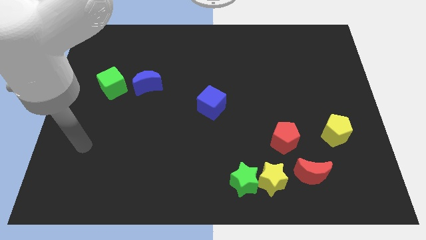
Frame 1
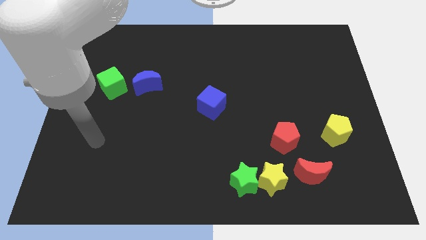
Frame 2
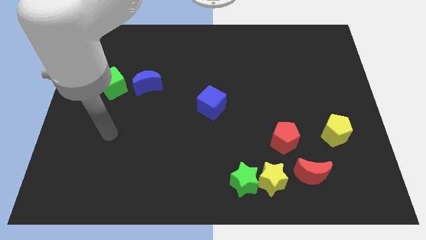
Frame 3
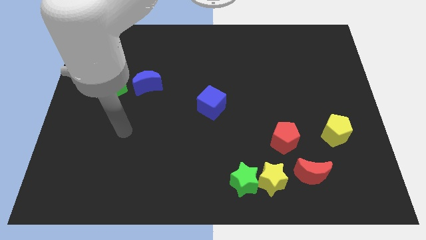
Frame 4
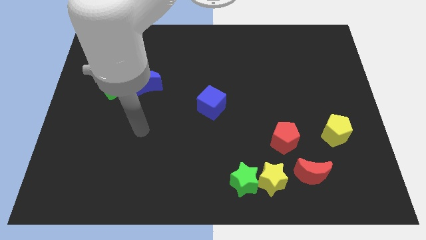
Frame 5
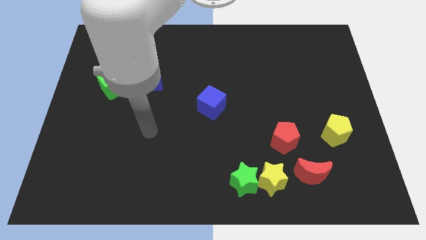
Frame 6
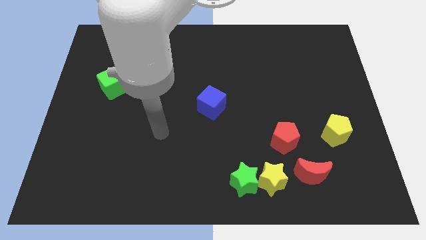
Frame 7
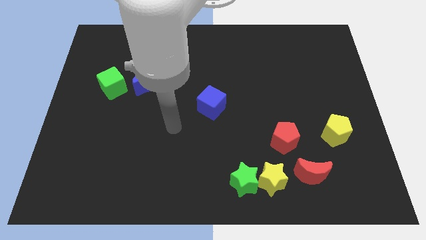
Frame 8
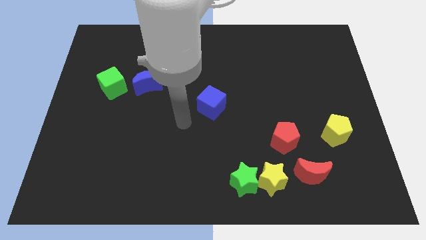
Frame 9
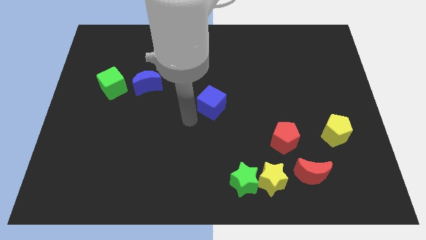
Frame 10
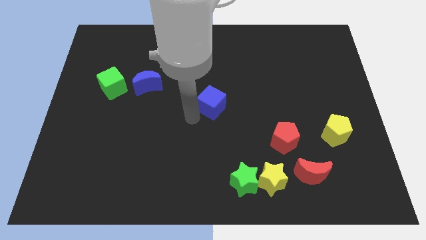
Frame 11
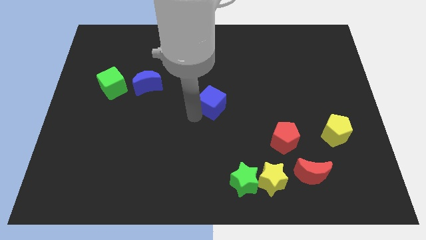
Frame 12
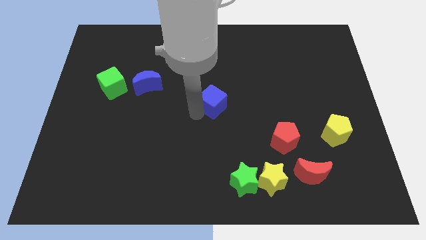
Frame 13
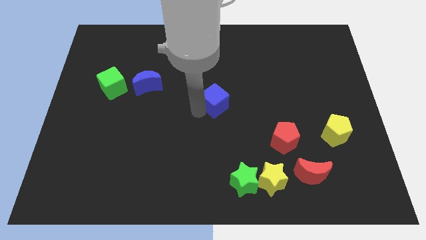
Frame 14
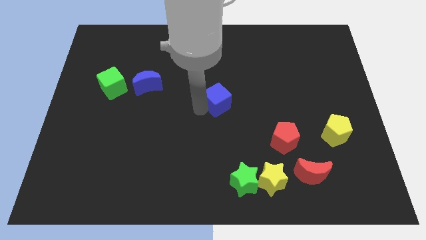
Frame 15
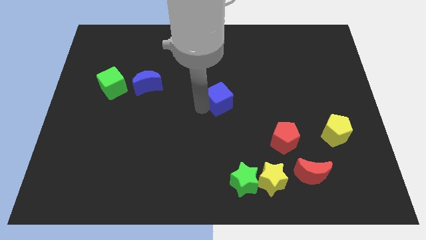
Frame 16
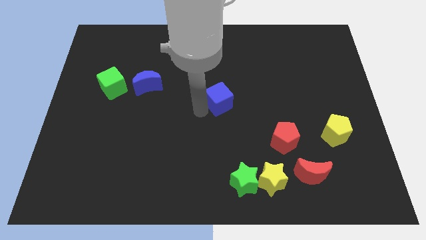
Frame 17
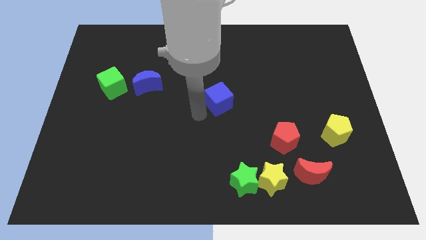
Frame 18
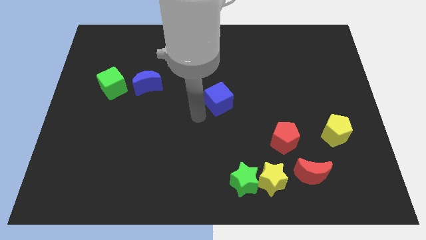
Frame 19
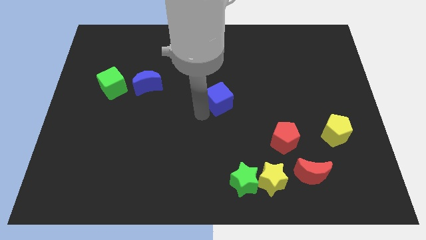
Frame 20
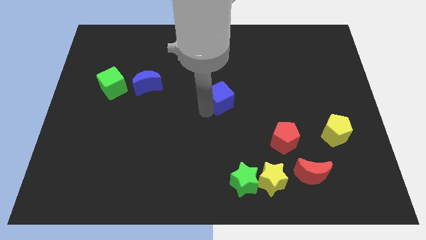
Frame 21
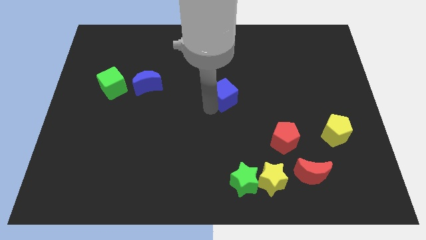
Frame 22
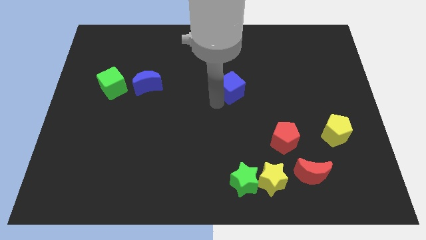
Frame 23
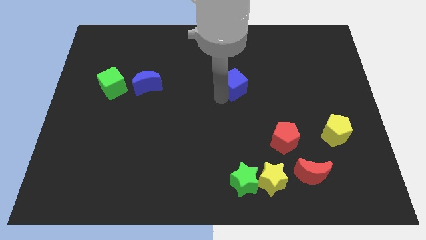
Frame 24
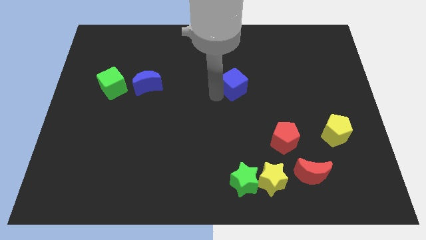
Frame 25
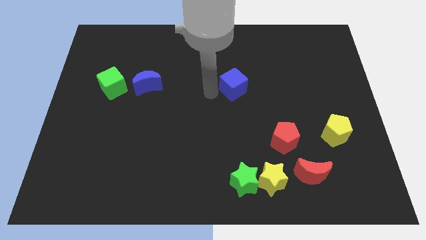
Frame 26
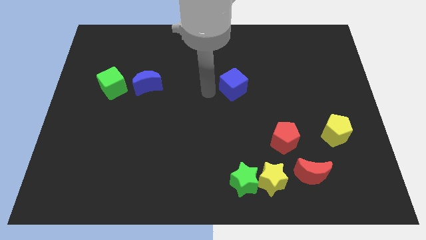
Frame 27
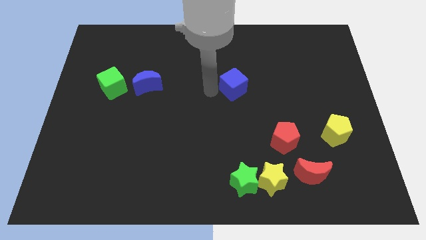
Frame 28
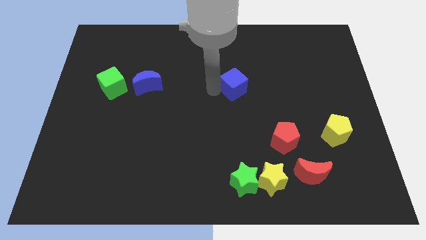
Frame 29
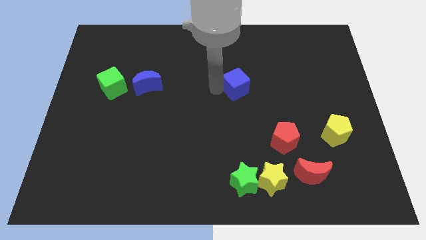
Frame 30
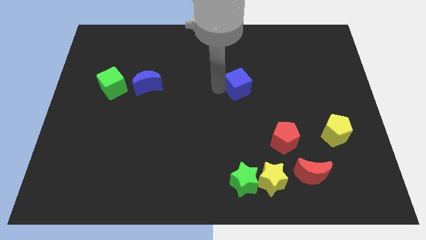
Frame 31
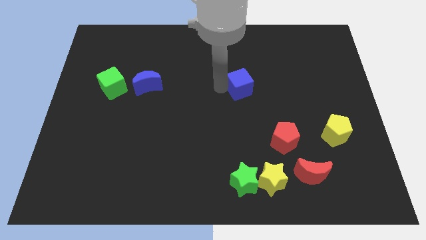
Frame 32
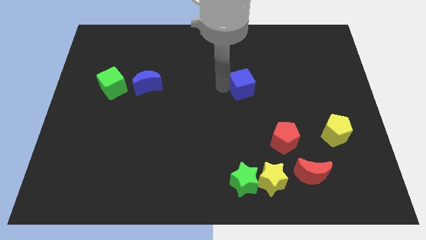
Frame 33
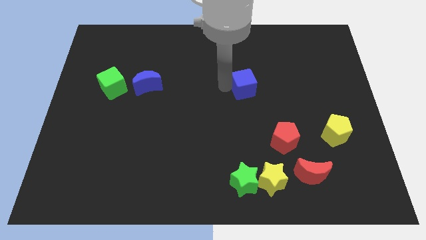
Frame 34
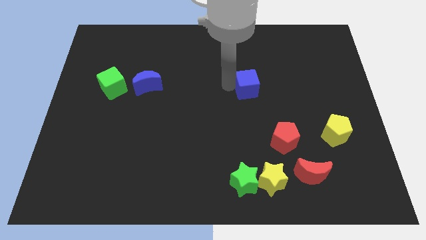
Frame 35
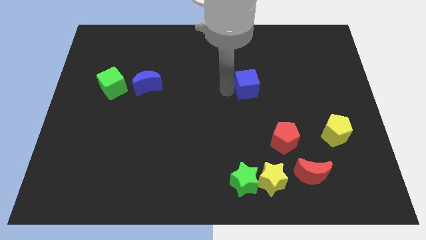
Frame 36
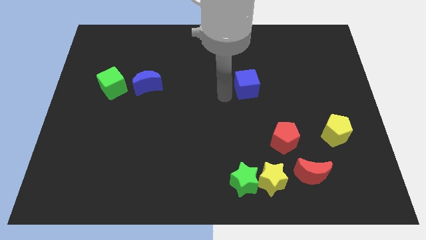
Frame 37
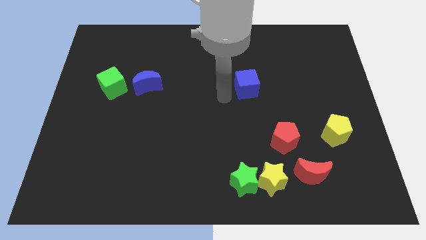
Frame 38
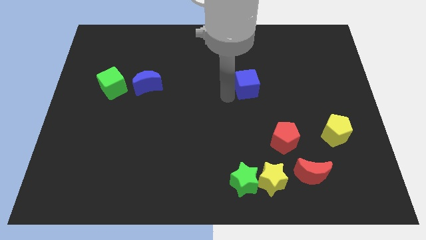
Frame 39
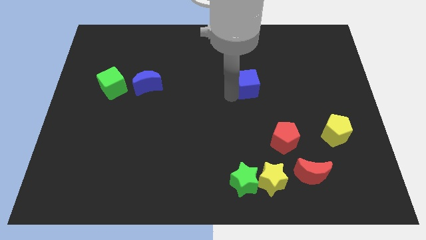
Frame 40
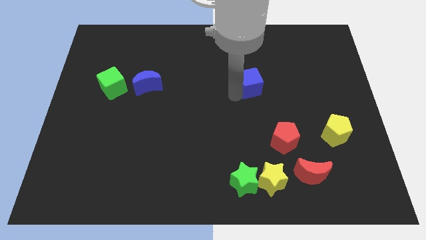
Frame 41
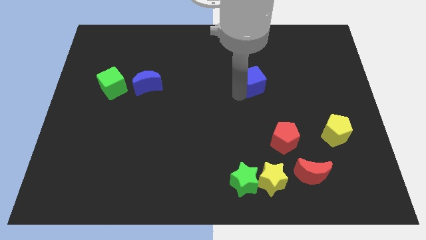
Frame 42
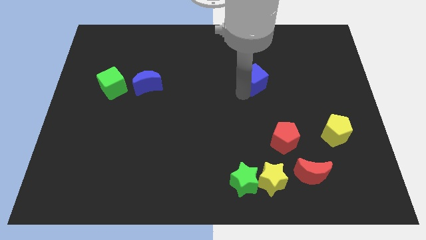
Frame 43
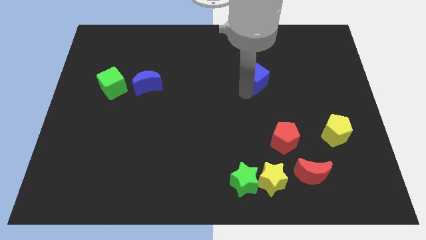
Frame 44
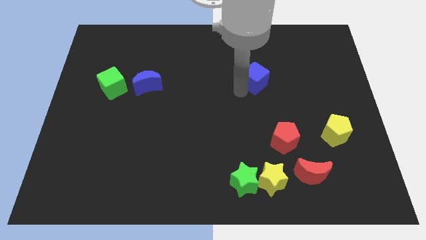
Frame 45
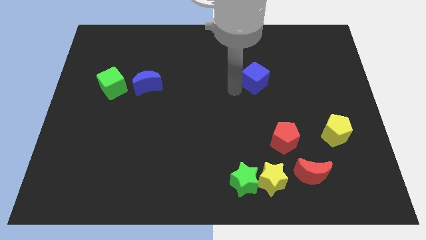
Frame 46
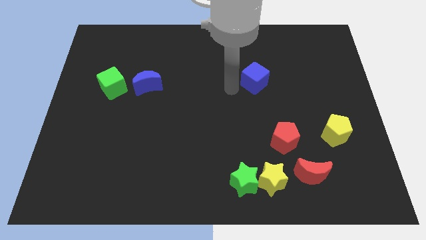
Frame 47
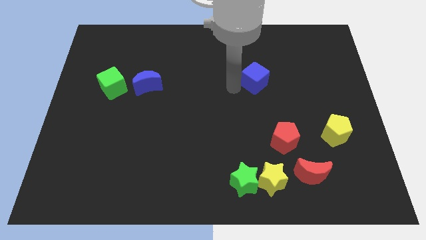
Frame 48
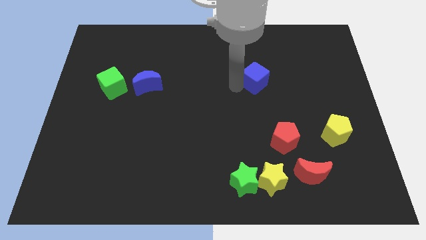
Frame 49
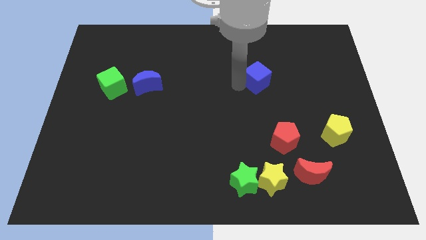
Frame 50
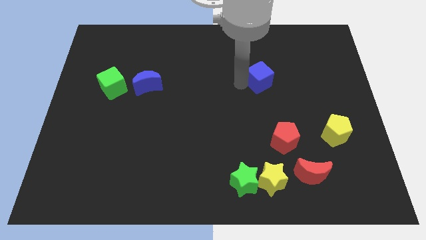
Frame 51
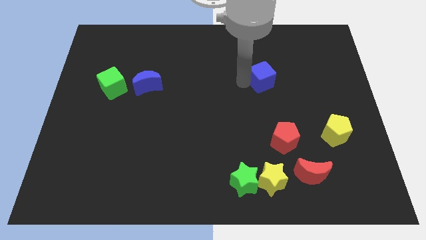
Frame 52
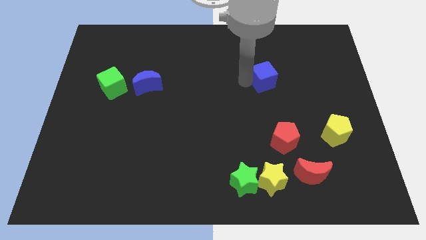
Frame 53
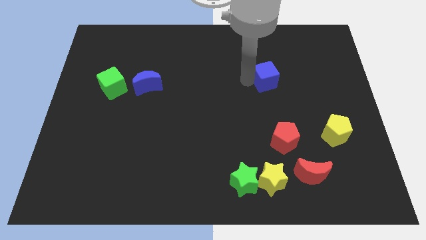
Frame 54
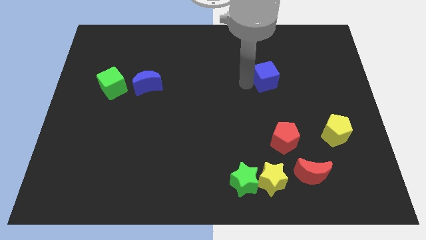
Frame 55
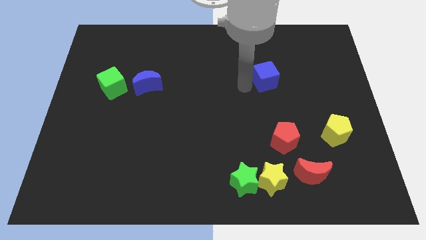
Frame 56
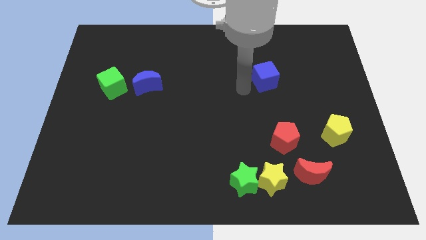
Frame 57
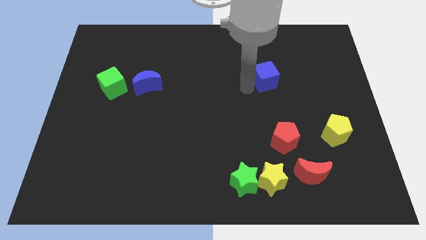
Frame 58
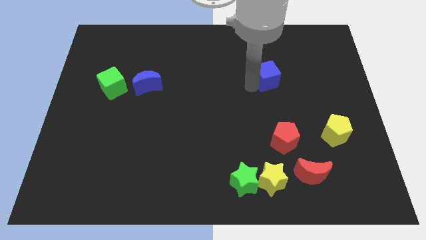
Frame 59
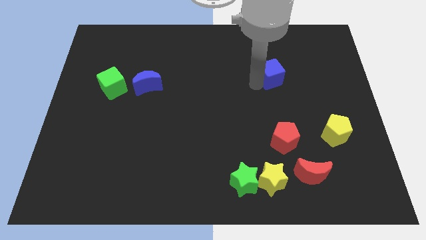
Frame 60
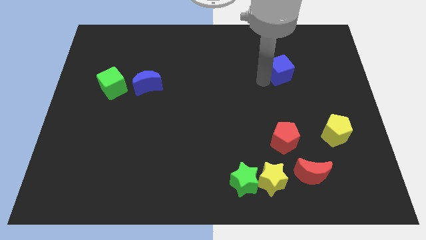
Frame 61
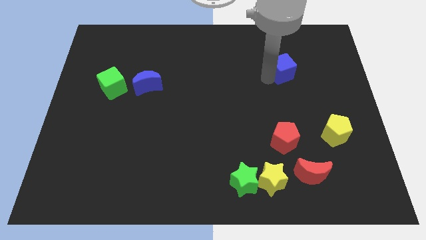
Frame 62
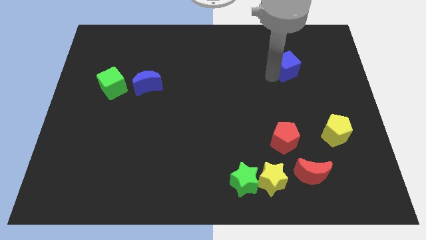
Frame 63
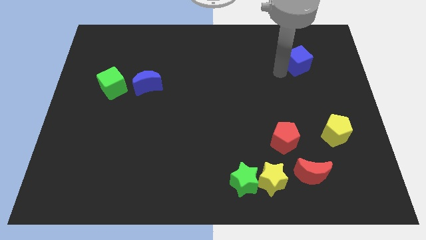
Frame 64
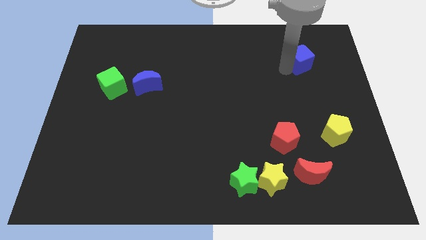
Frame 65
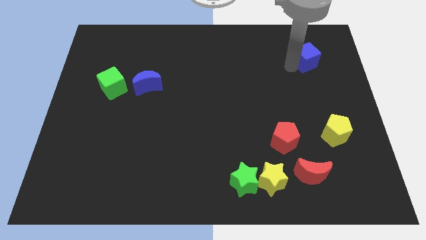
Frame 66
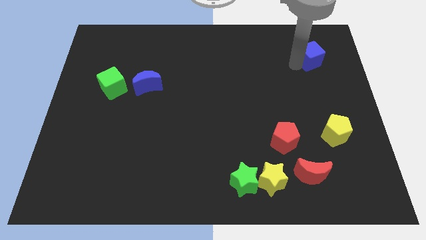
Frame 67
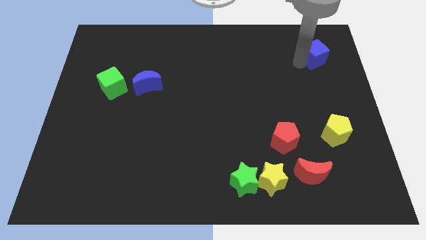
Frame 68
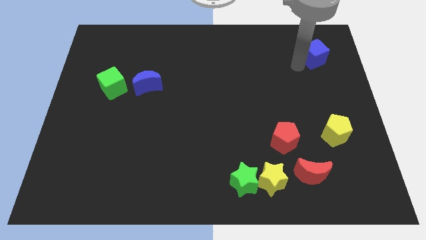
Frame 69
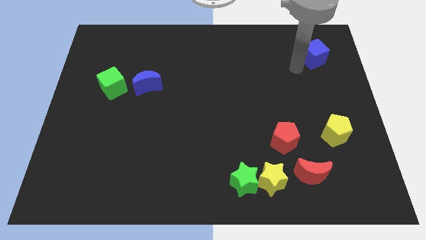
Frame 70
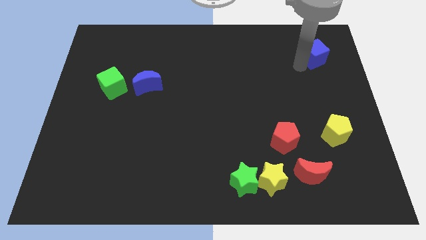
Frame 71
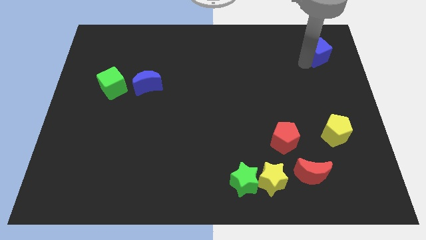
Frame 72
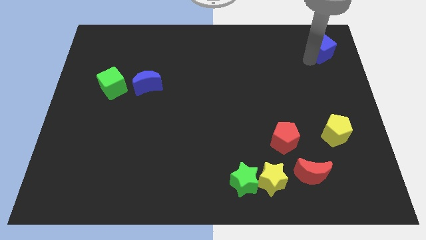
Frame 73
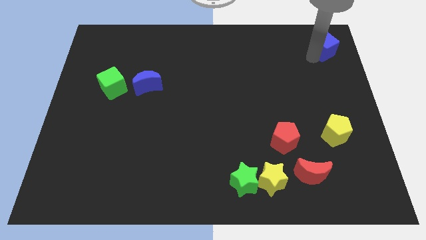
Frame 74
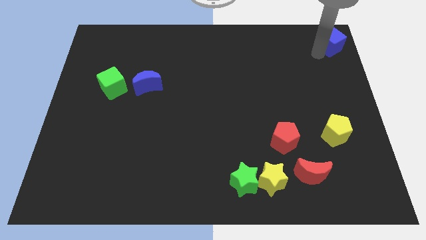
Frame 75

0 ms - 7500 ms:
move the blue cube to the top right

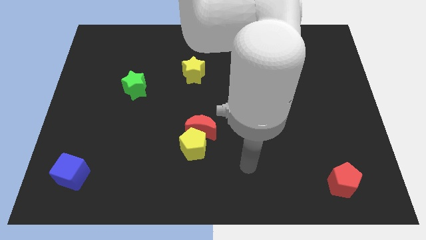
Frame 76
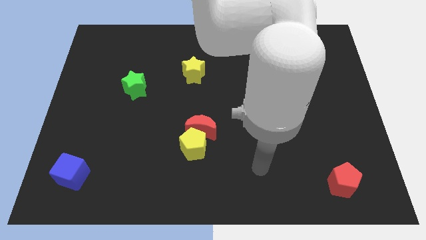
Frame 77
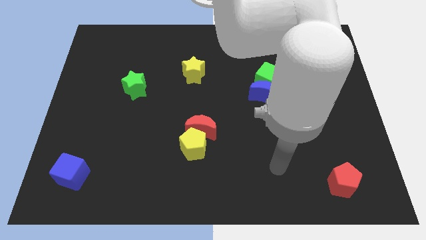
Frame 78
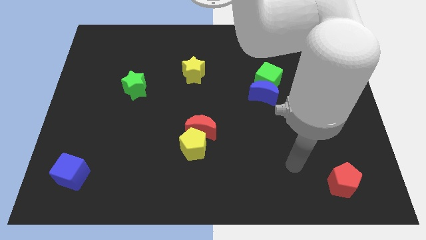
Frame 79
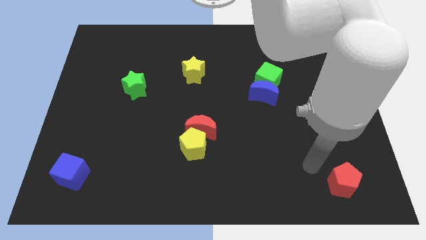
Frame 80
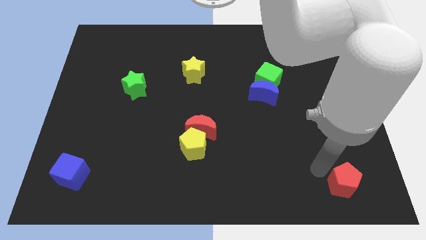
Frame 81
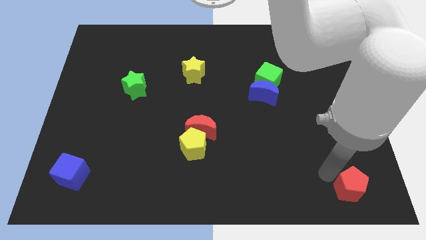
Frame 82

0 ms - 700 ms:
move the red pentagon to the lower right corner
